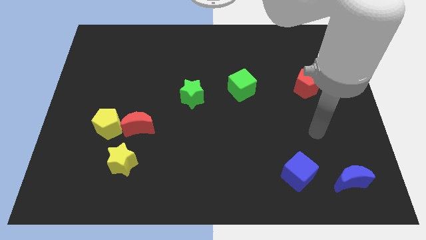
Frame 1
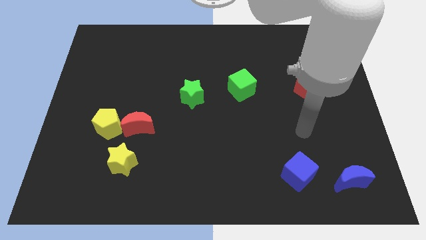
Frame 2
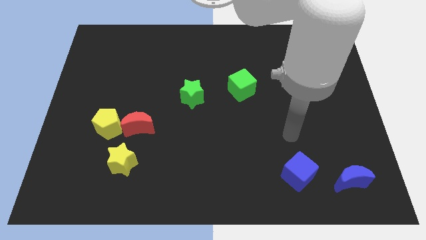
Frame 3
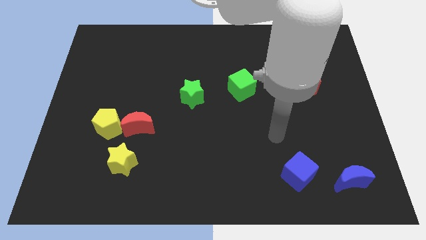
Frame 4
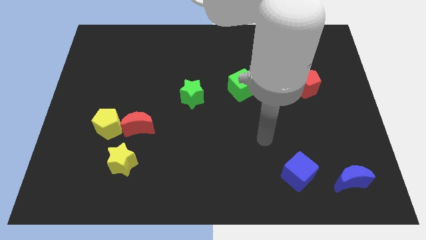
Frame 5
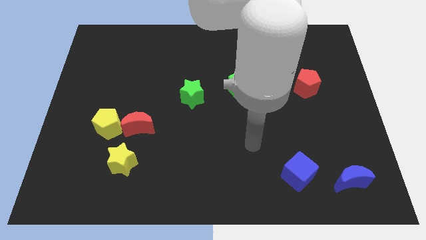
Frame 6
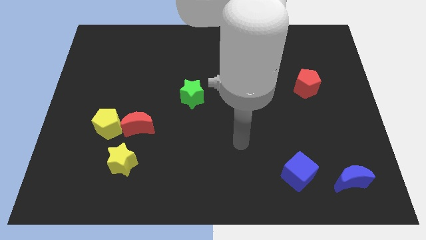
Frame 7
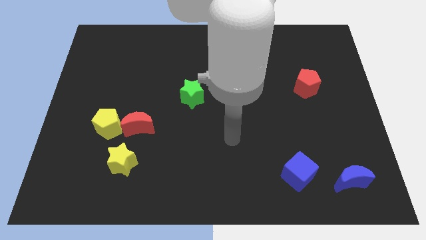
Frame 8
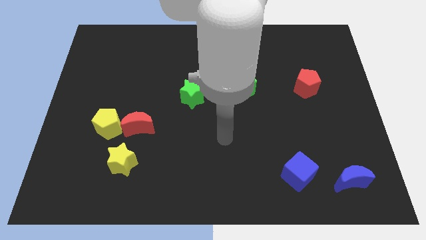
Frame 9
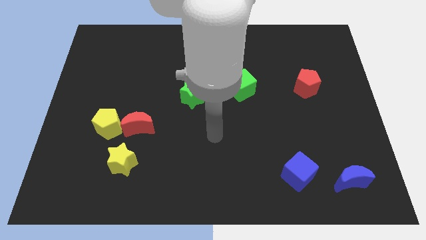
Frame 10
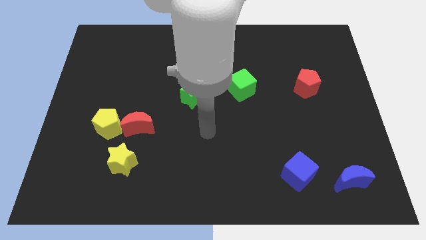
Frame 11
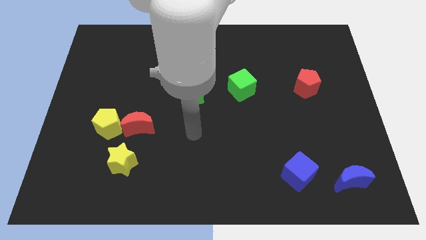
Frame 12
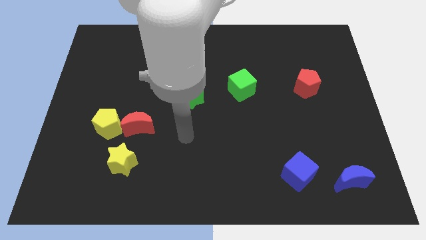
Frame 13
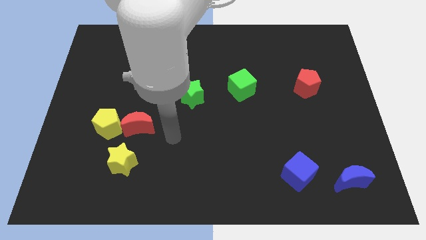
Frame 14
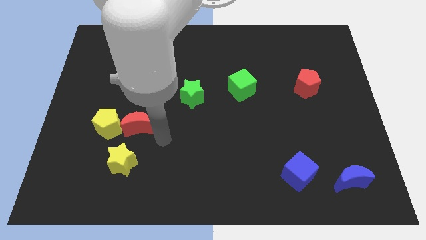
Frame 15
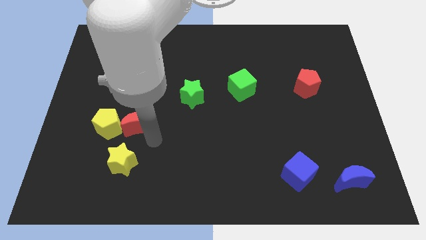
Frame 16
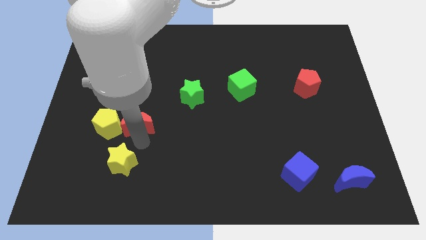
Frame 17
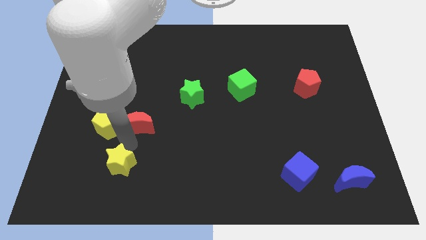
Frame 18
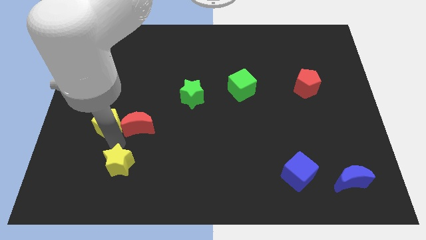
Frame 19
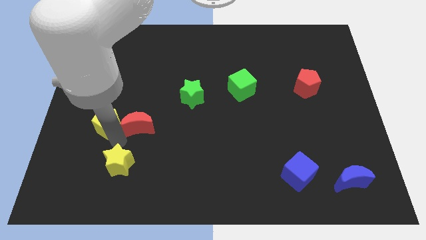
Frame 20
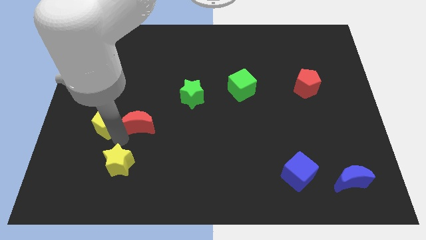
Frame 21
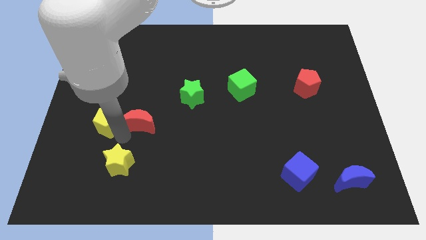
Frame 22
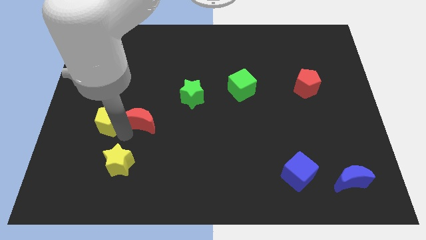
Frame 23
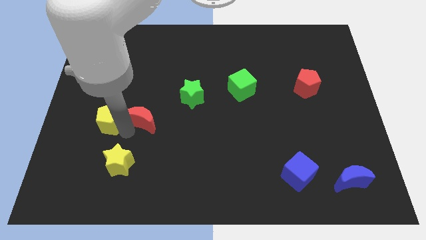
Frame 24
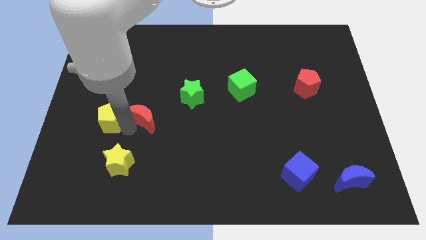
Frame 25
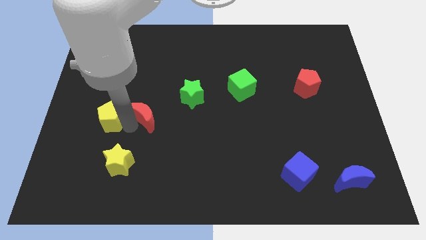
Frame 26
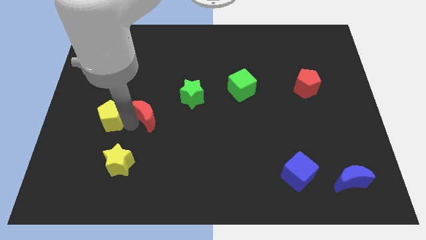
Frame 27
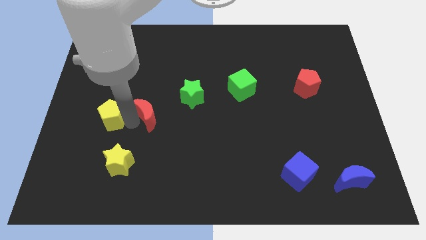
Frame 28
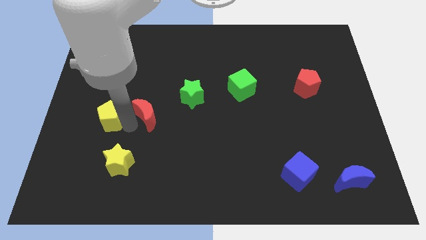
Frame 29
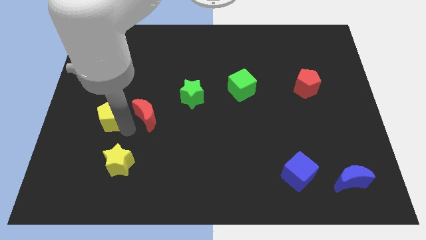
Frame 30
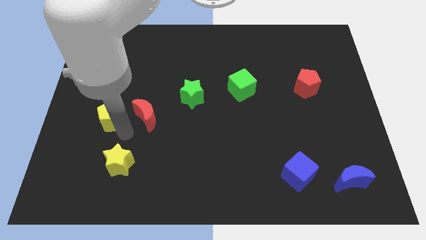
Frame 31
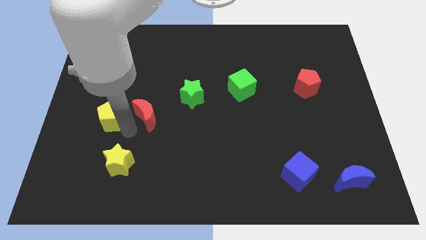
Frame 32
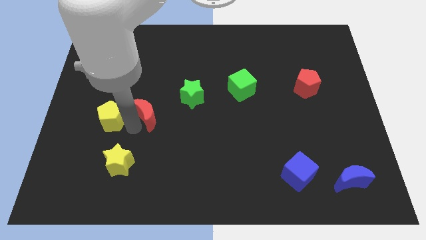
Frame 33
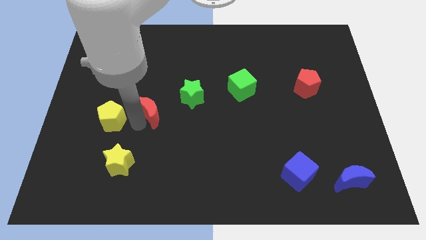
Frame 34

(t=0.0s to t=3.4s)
pull the red moon apart from the yellow pentagon and yellow star

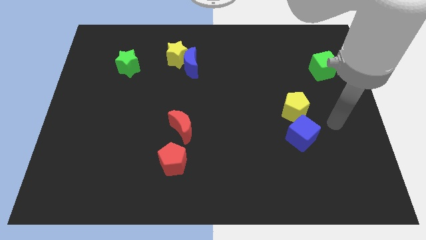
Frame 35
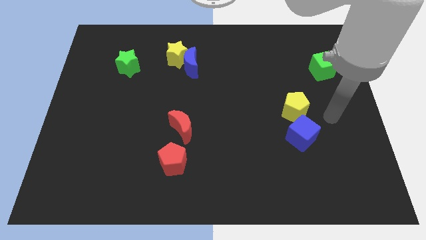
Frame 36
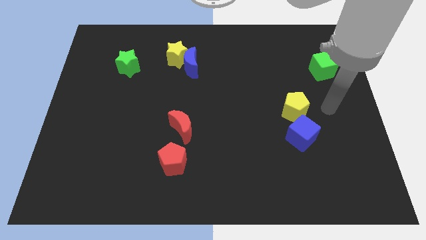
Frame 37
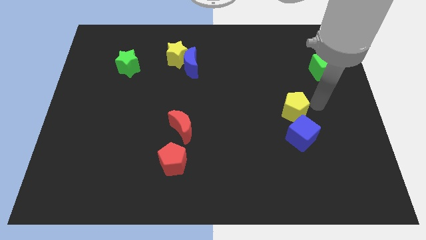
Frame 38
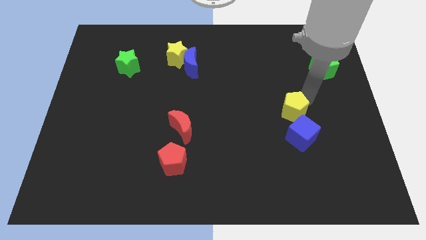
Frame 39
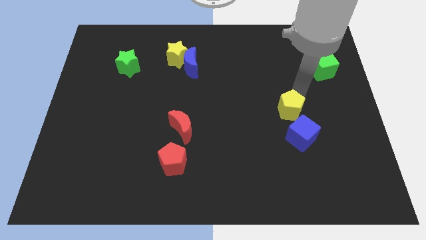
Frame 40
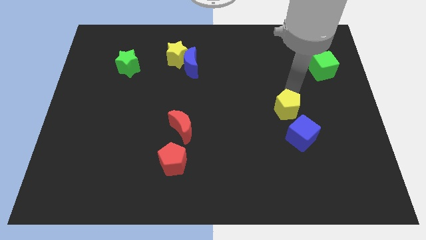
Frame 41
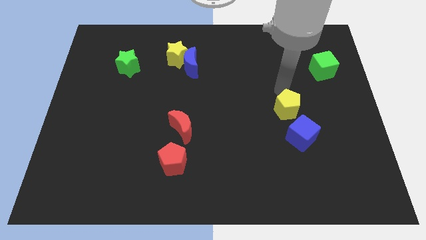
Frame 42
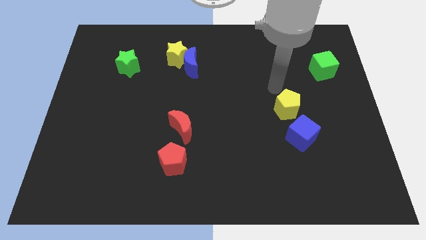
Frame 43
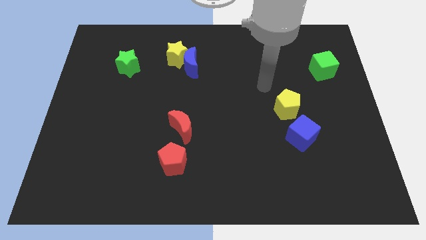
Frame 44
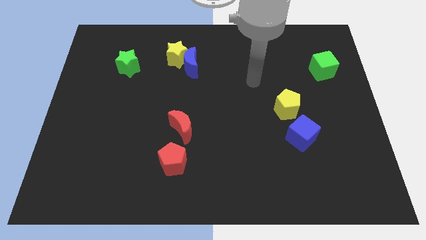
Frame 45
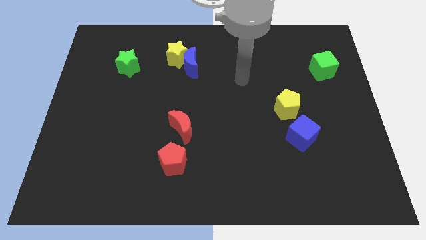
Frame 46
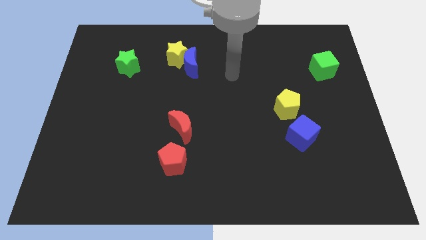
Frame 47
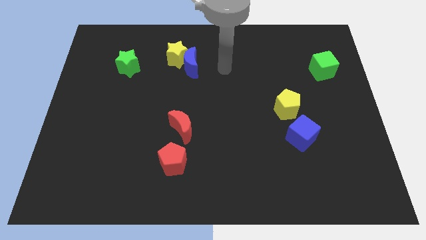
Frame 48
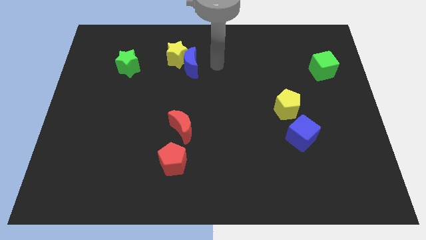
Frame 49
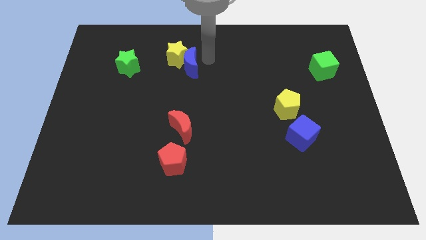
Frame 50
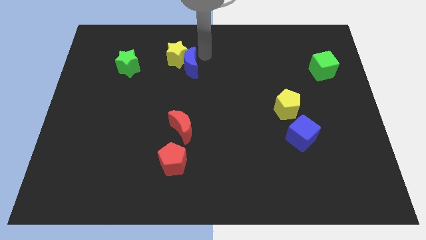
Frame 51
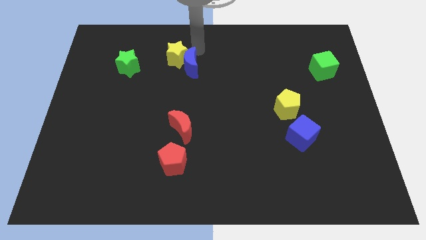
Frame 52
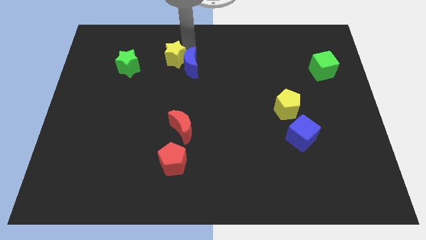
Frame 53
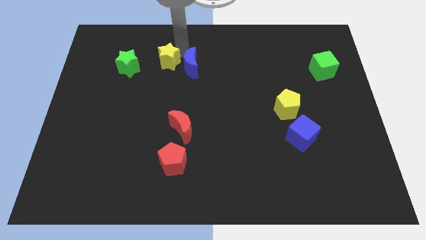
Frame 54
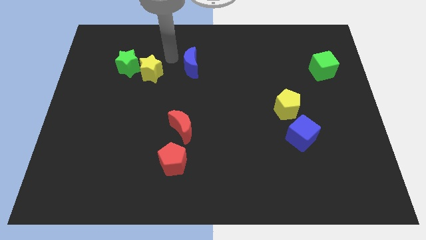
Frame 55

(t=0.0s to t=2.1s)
pull the blue moon apart from the yellow star

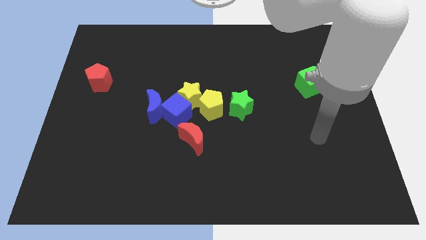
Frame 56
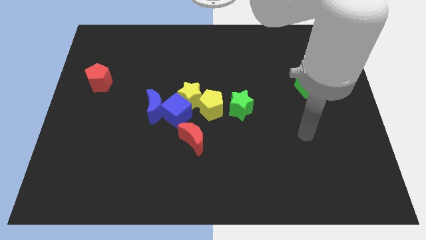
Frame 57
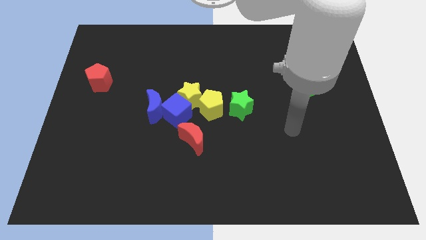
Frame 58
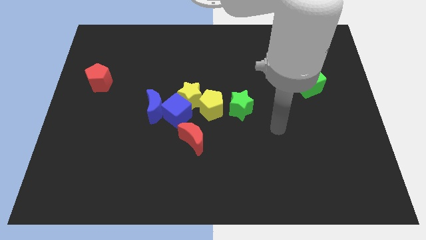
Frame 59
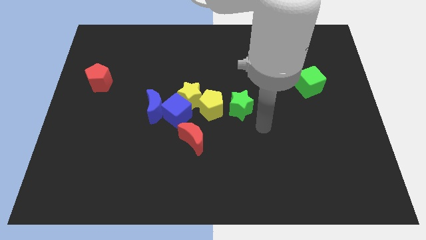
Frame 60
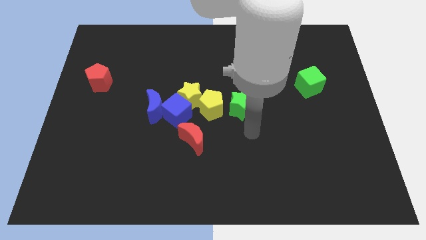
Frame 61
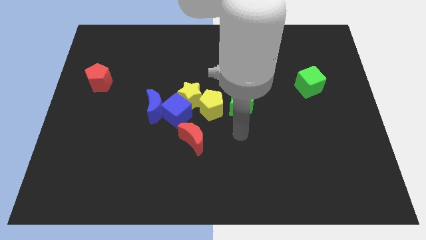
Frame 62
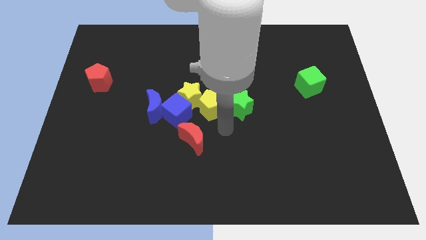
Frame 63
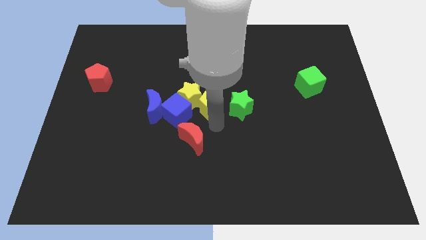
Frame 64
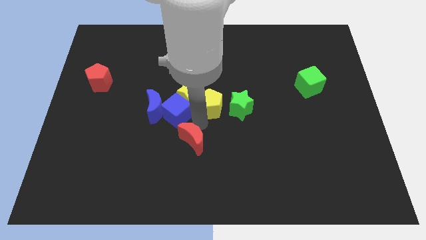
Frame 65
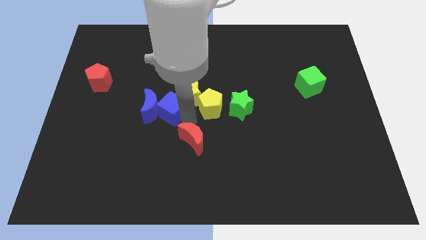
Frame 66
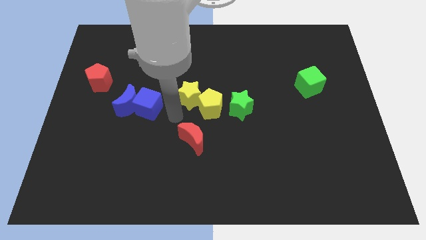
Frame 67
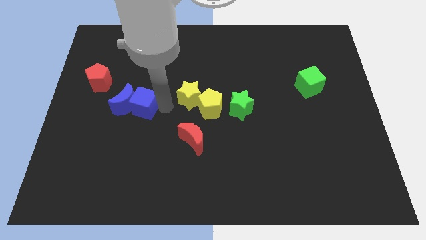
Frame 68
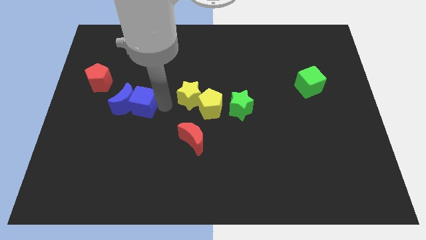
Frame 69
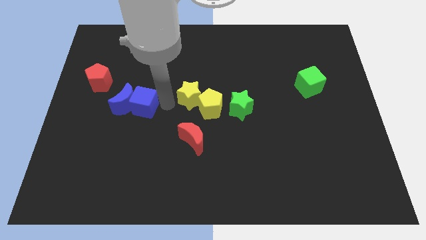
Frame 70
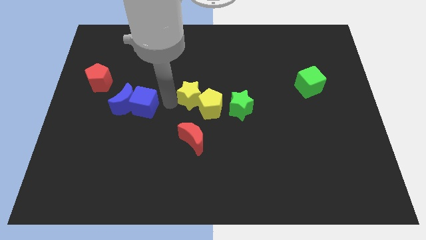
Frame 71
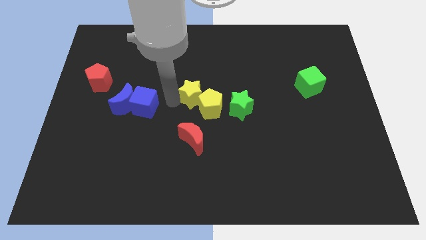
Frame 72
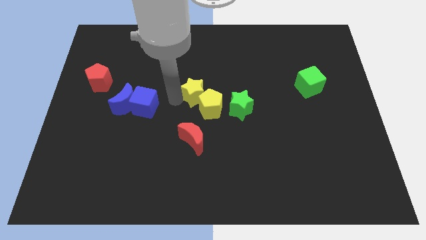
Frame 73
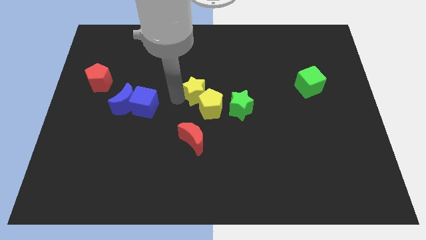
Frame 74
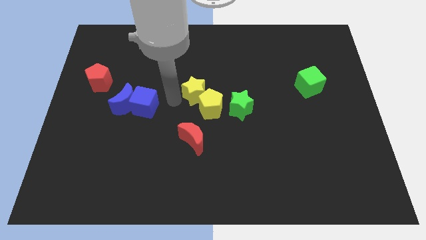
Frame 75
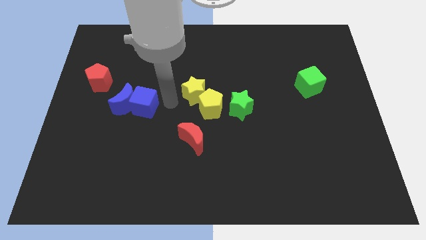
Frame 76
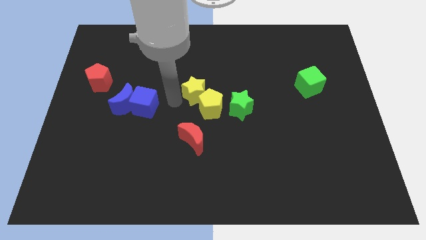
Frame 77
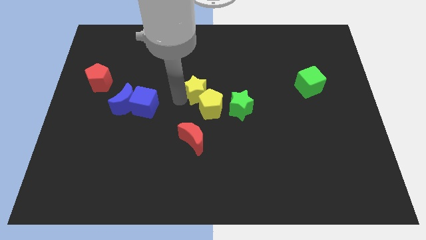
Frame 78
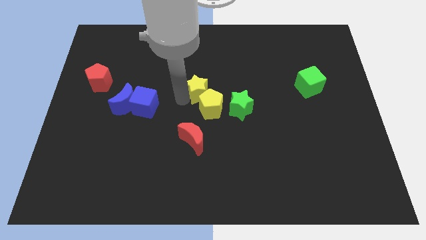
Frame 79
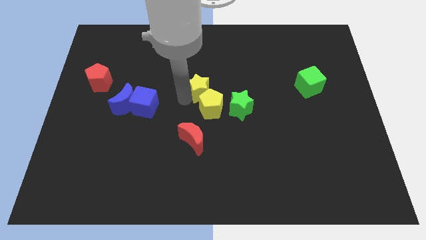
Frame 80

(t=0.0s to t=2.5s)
pull the yellow star apart from the group of blocks

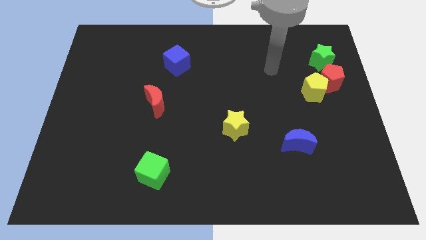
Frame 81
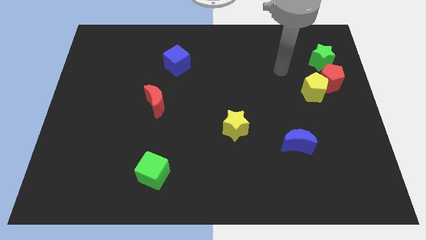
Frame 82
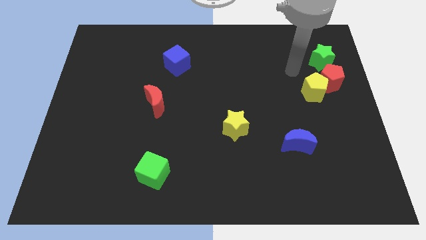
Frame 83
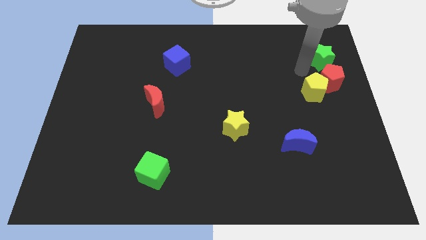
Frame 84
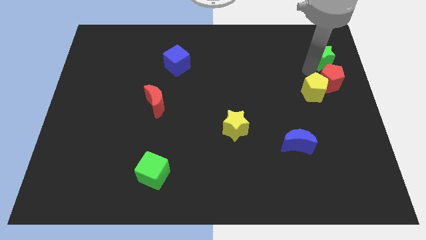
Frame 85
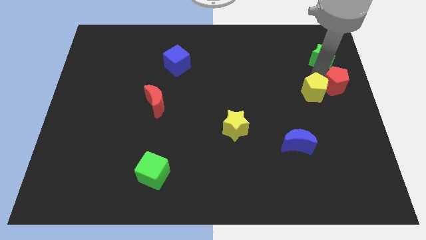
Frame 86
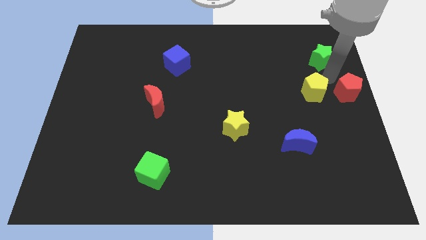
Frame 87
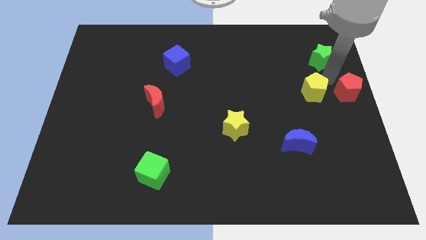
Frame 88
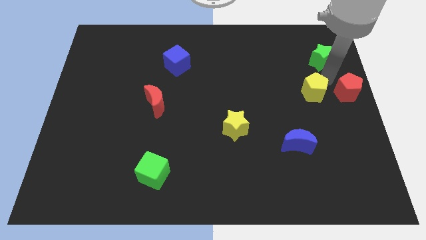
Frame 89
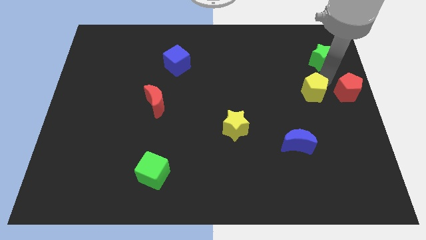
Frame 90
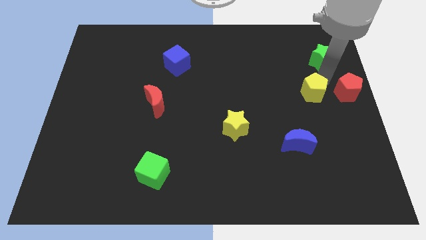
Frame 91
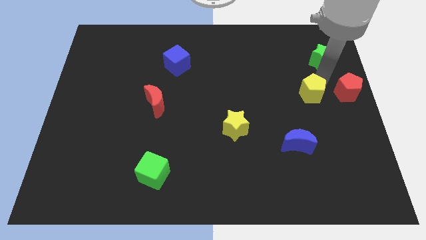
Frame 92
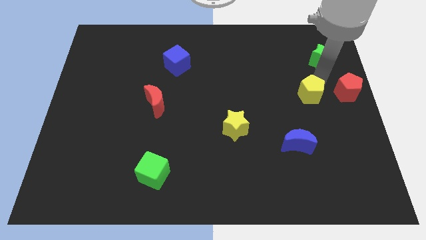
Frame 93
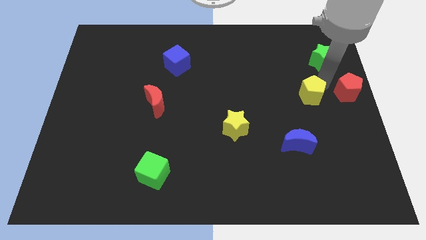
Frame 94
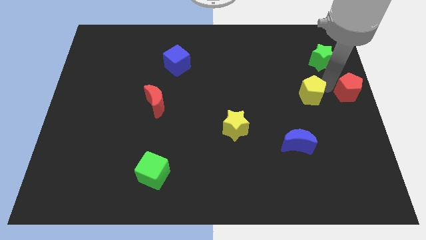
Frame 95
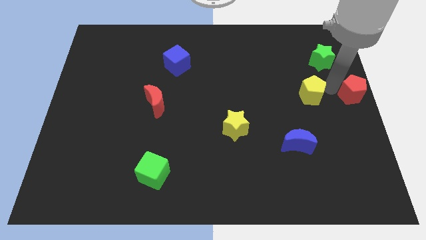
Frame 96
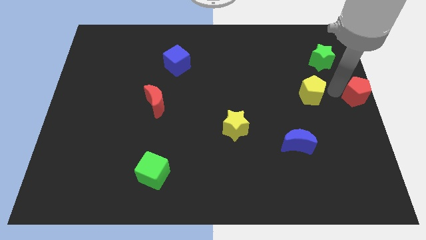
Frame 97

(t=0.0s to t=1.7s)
pull the yellow pentagon apart from the red pentagon
